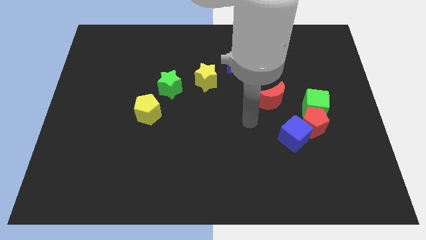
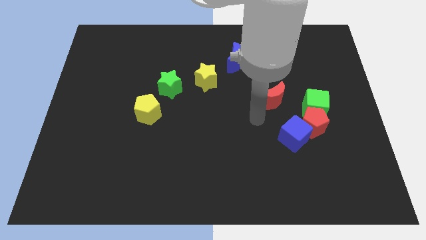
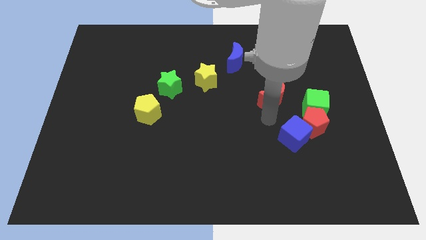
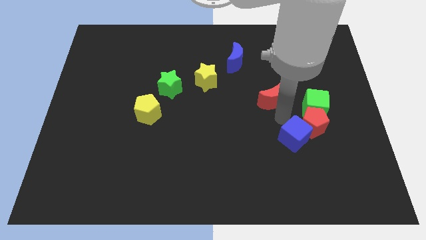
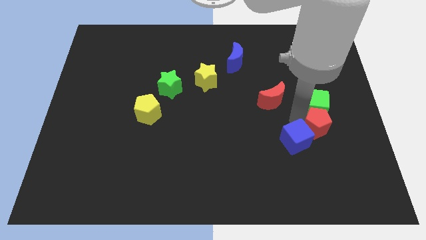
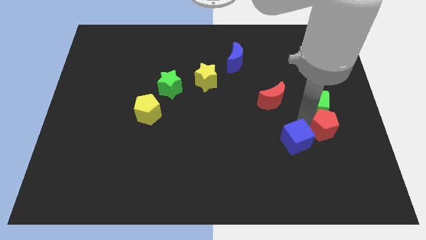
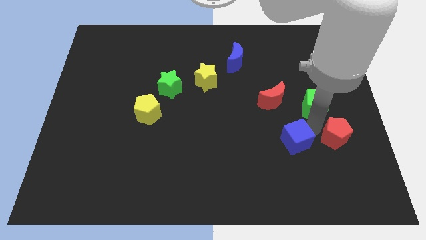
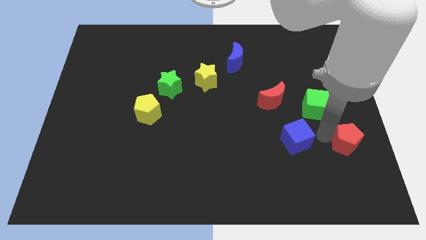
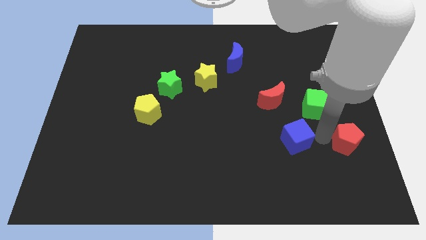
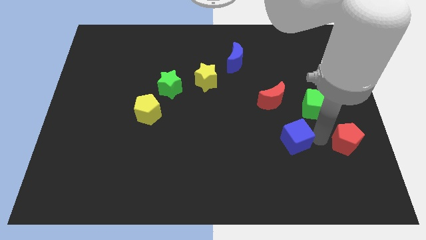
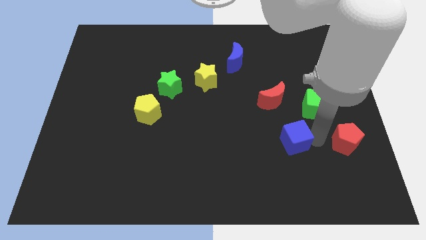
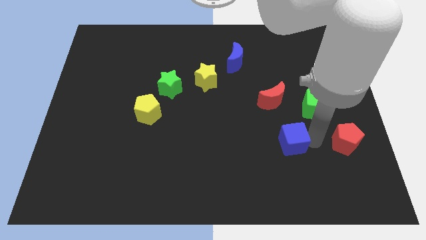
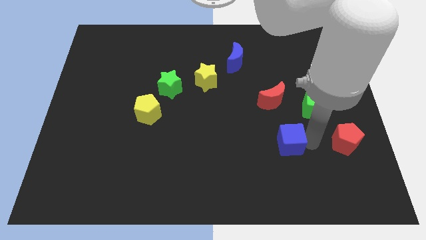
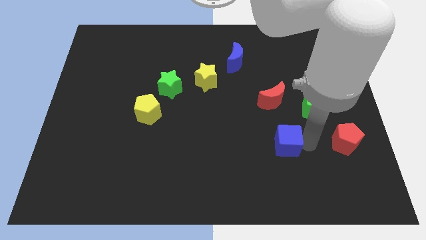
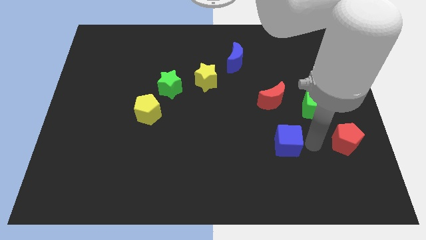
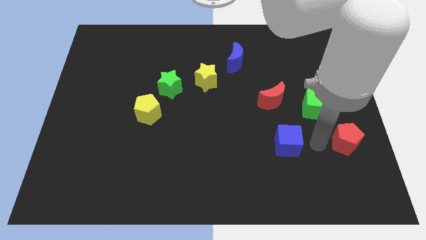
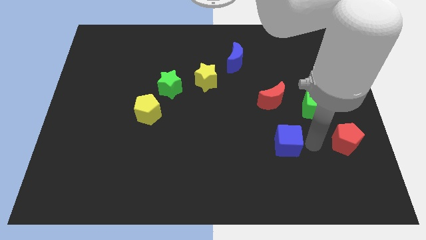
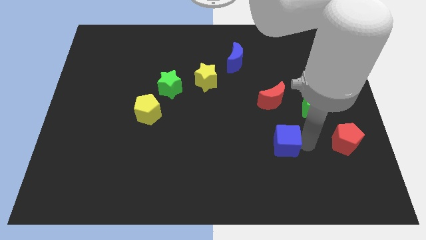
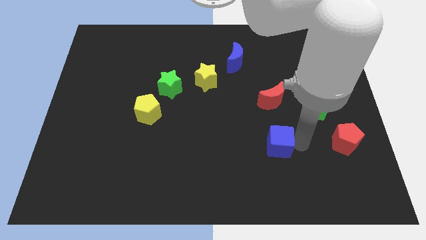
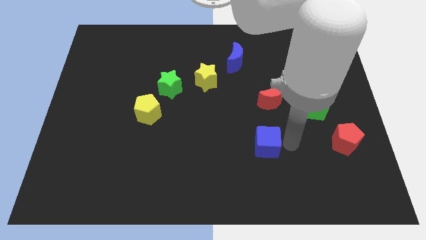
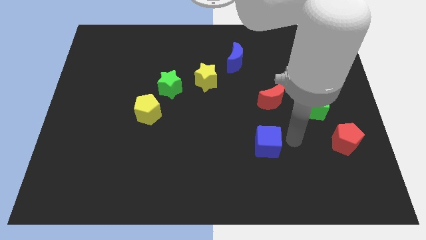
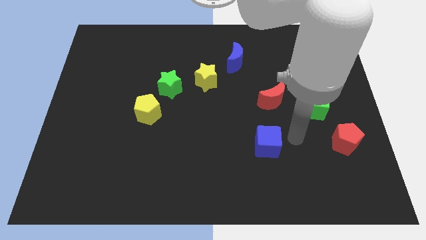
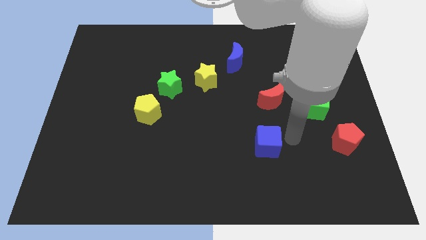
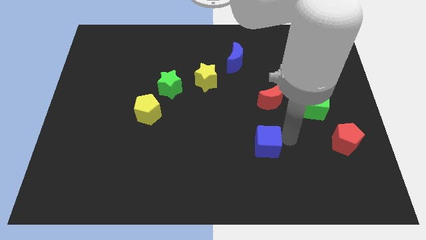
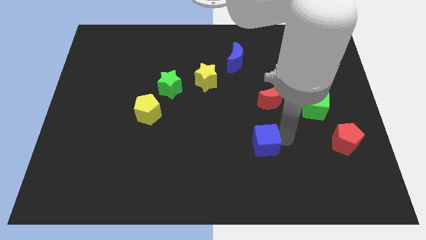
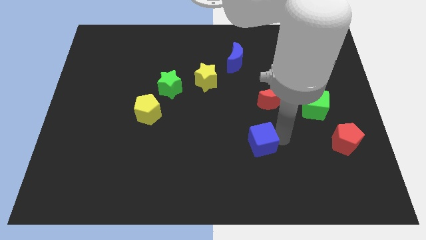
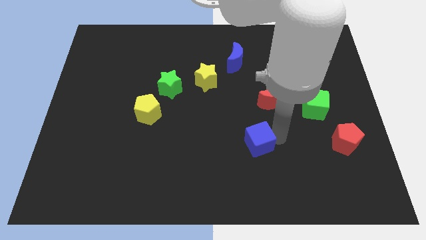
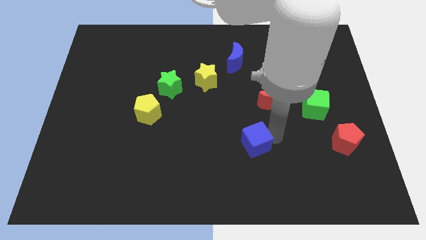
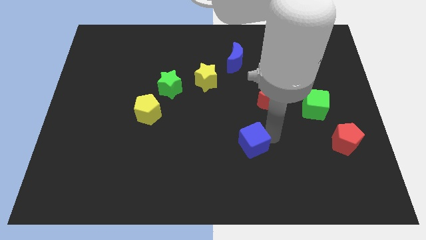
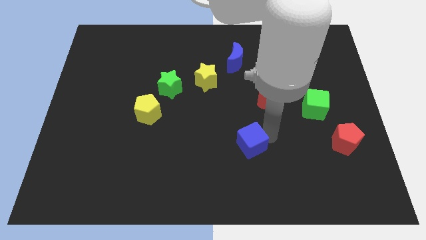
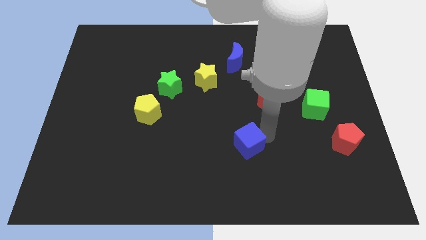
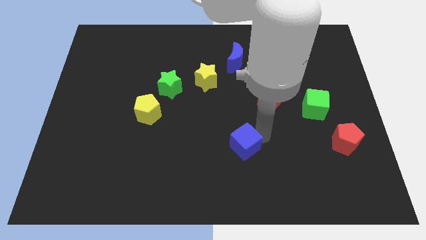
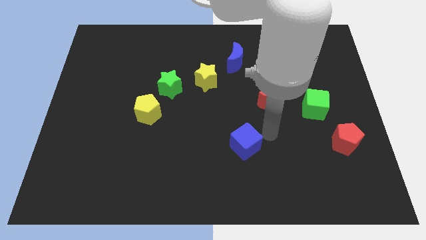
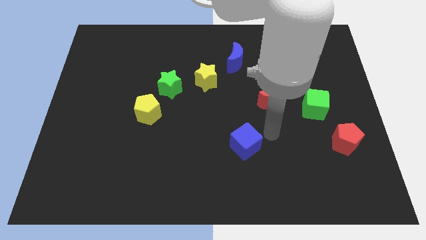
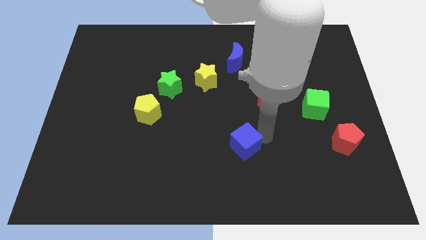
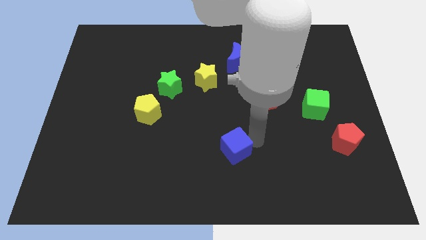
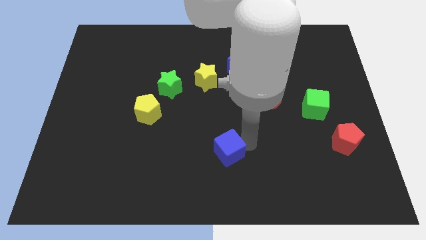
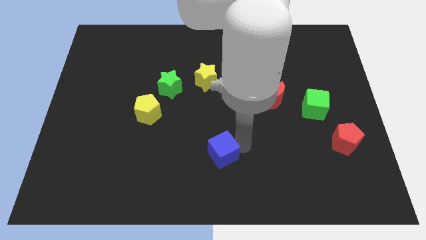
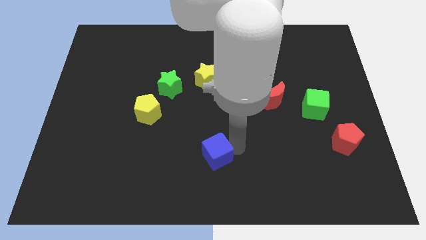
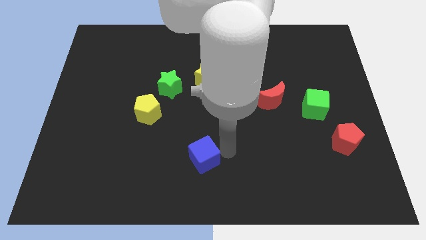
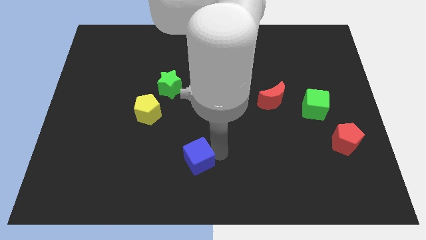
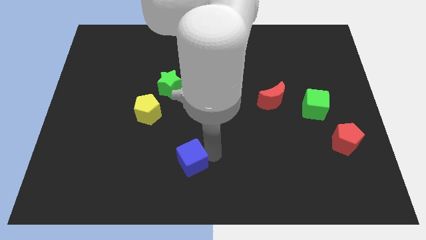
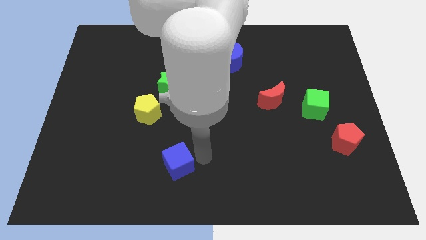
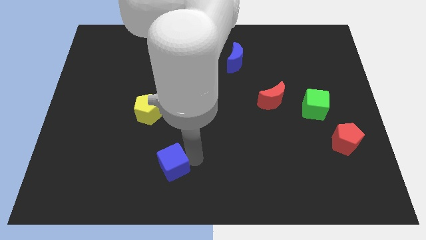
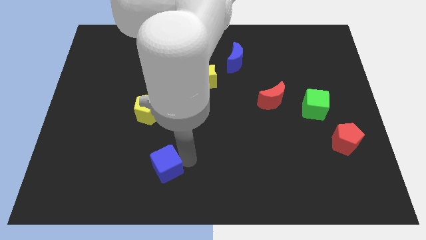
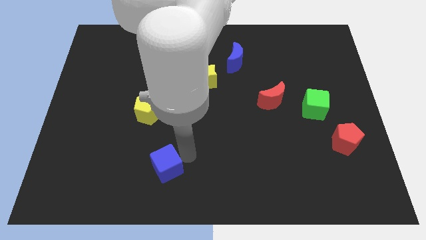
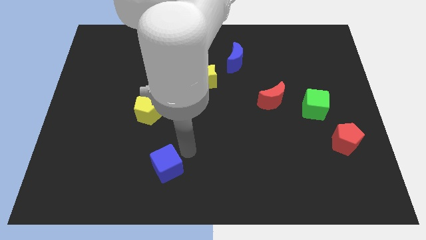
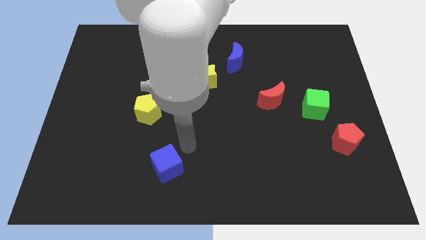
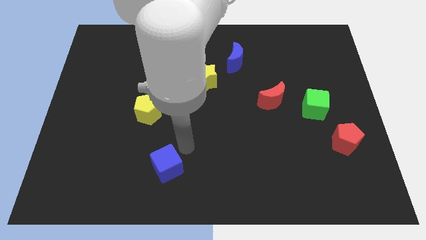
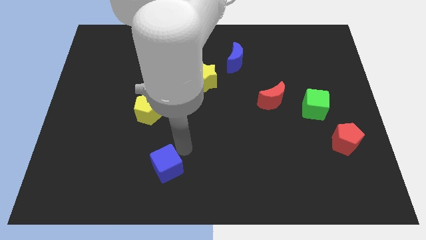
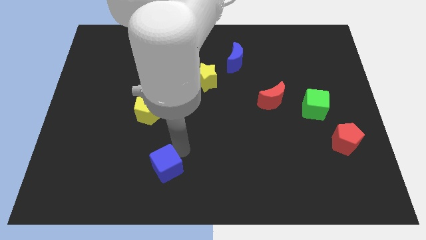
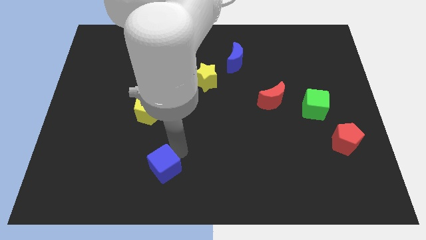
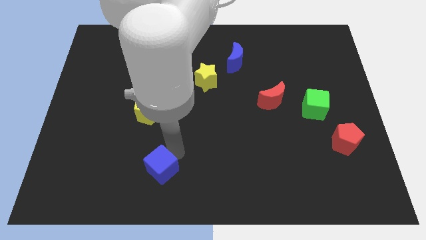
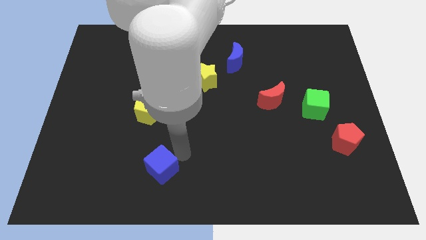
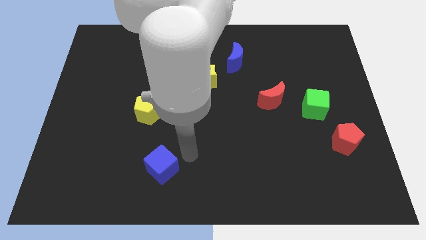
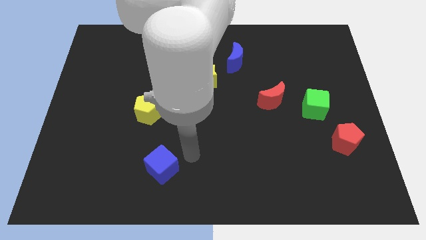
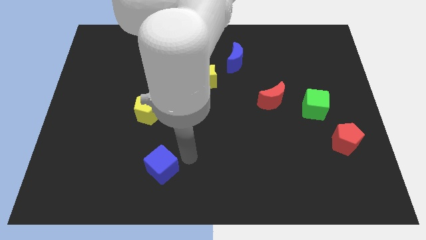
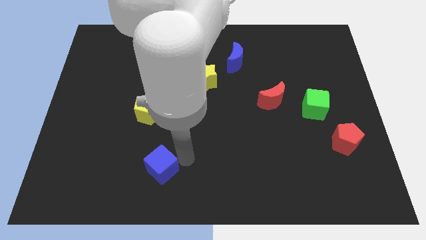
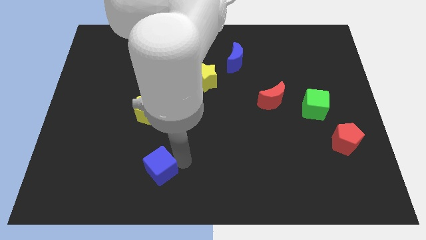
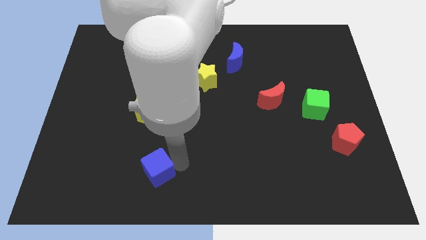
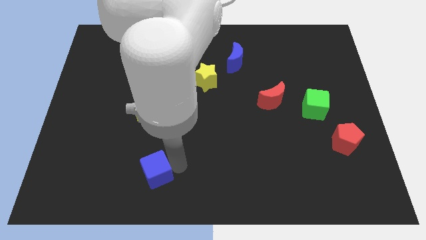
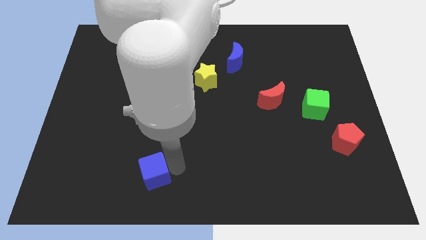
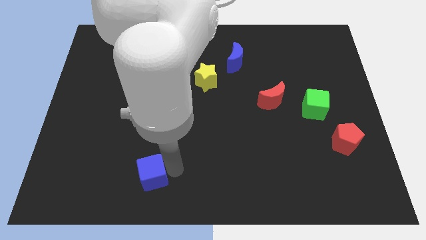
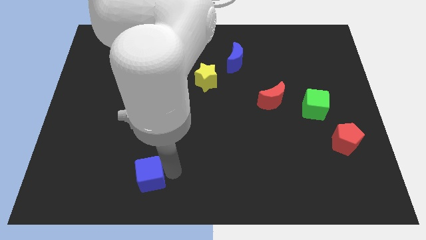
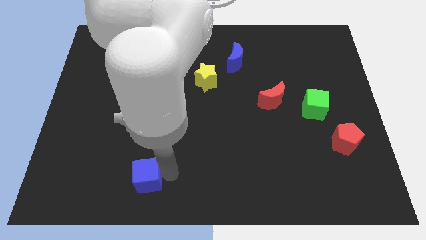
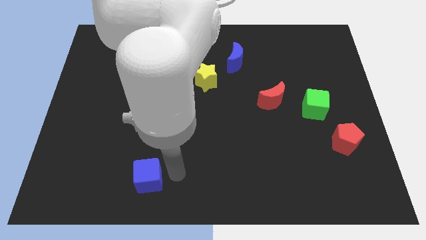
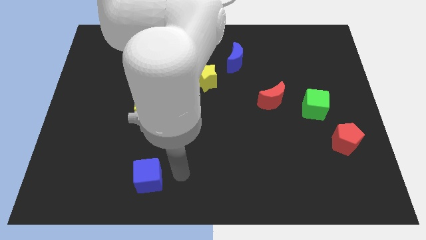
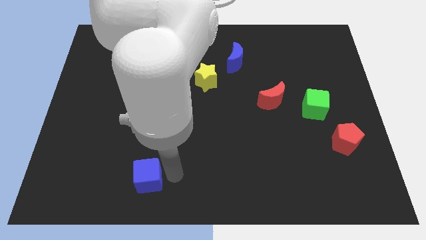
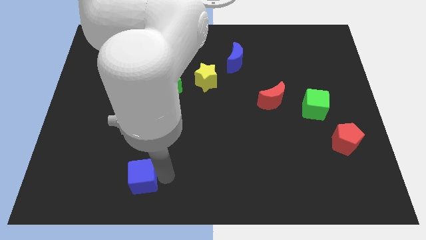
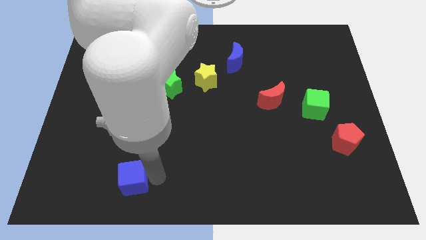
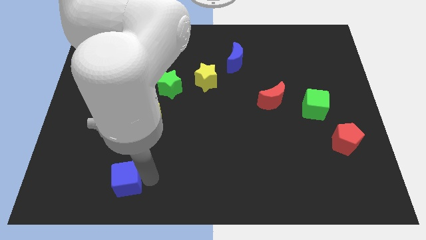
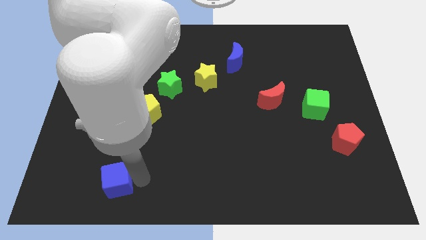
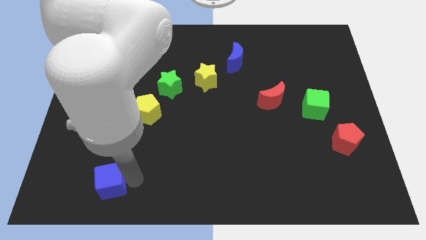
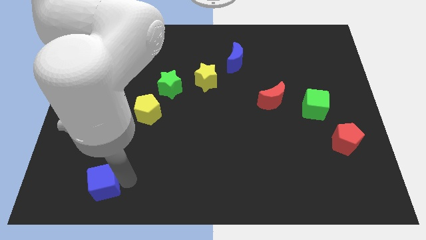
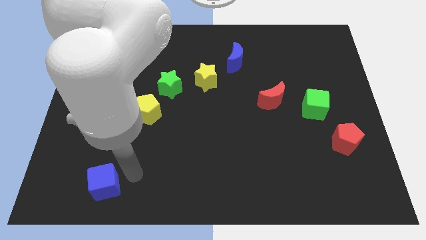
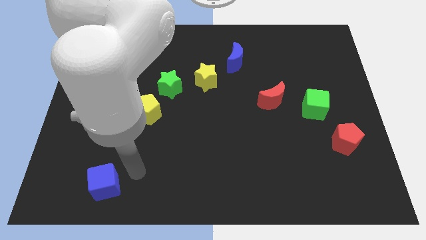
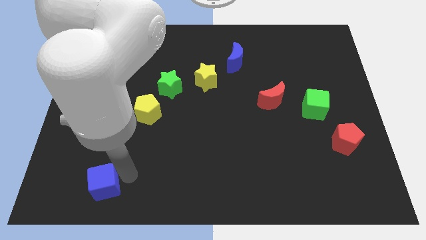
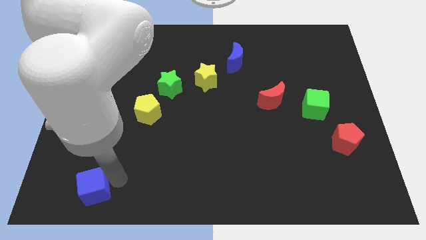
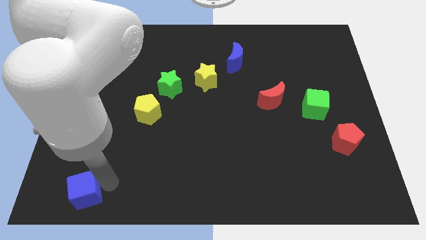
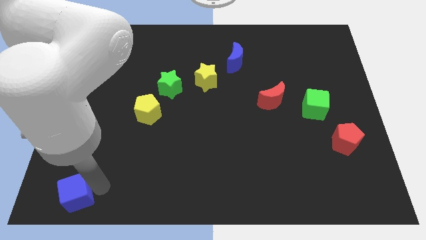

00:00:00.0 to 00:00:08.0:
push the blue cube to the bottom left

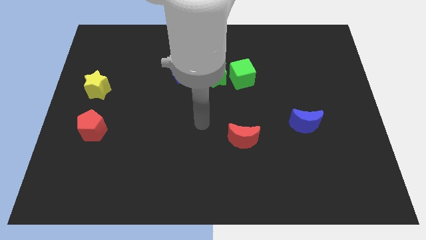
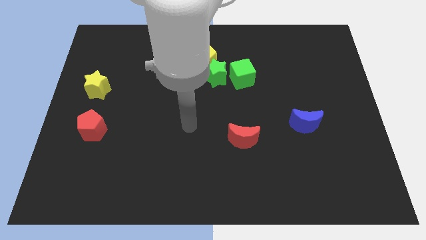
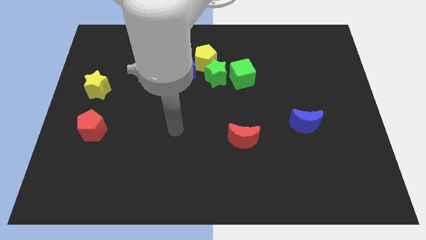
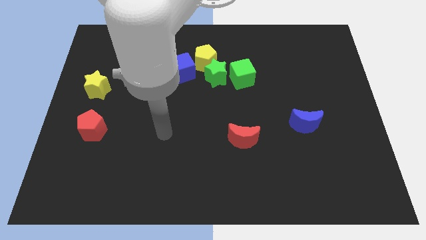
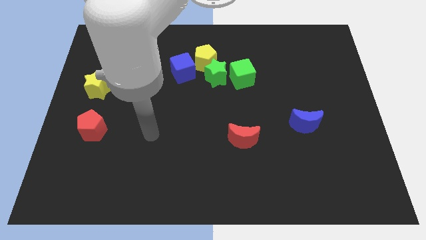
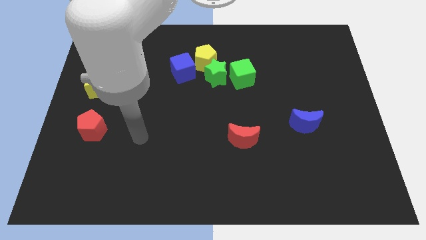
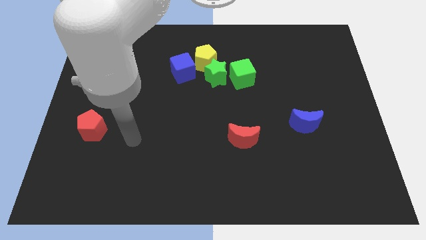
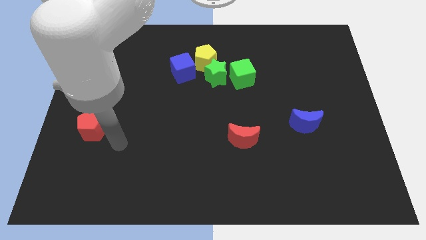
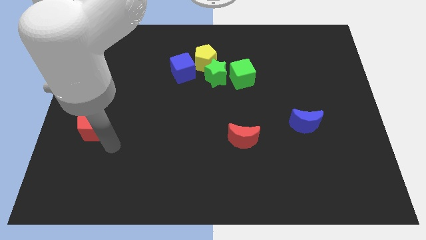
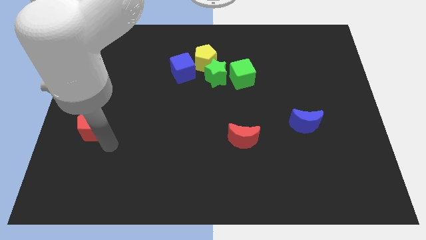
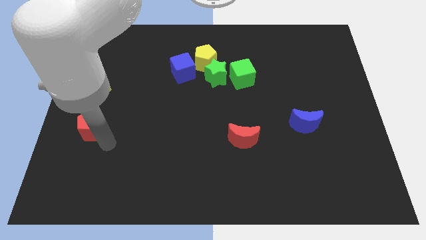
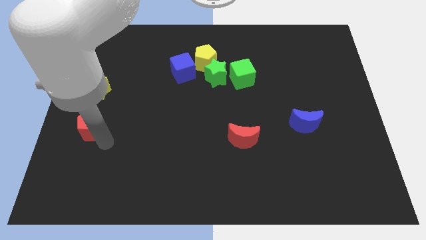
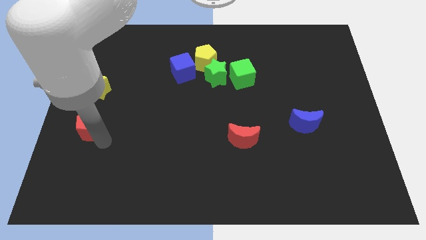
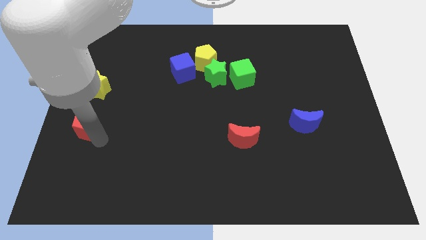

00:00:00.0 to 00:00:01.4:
slide the red pentagon to the left side of the board
